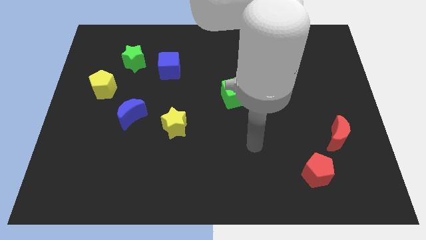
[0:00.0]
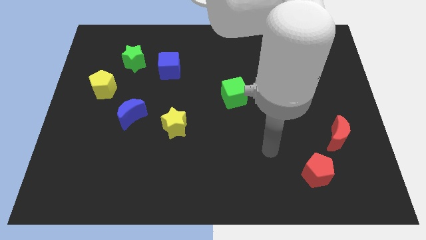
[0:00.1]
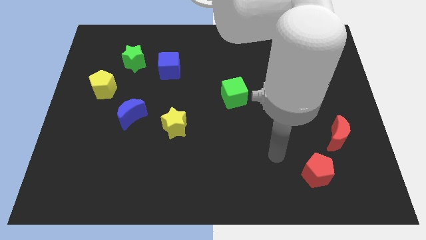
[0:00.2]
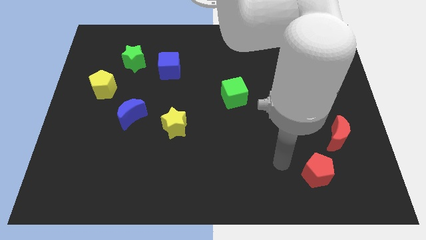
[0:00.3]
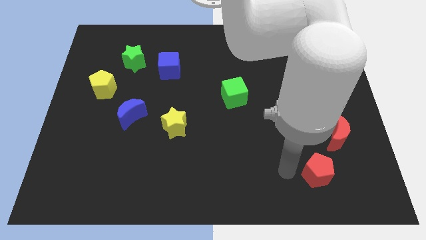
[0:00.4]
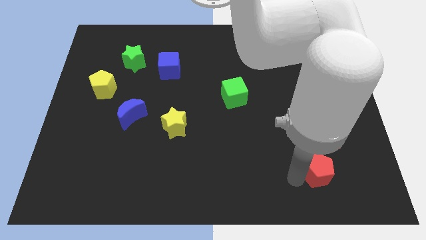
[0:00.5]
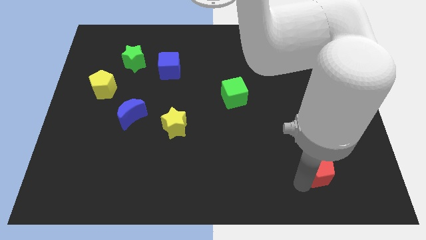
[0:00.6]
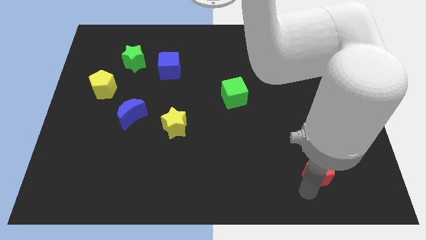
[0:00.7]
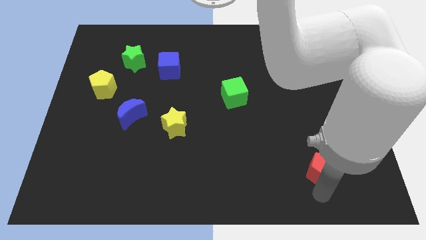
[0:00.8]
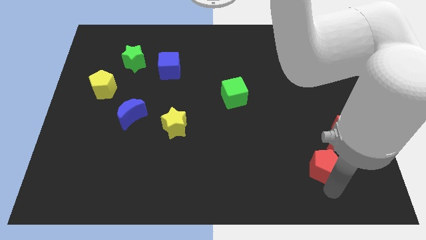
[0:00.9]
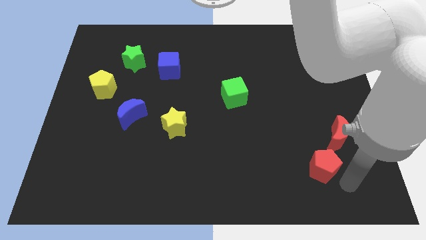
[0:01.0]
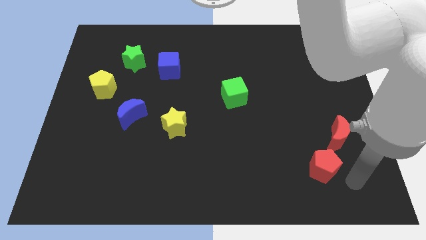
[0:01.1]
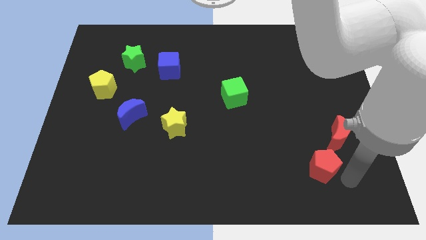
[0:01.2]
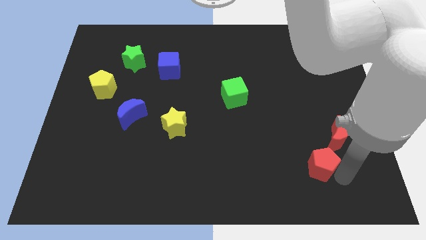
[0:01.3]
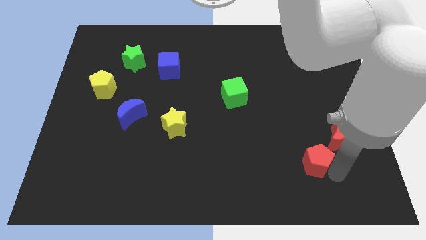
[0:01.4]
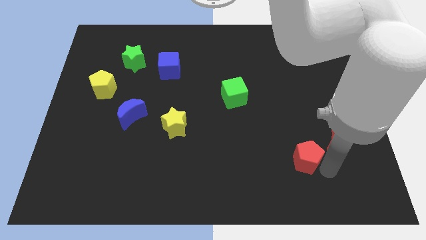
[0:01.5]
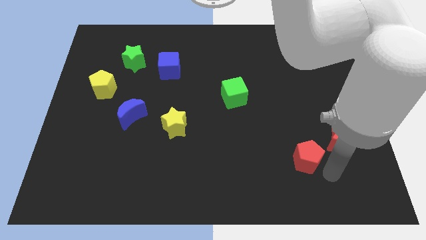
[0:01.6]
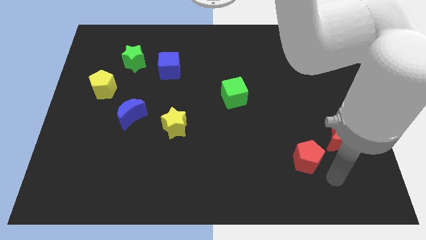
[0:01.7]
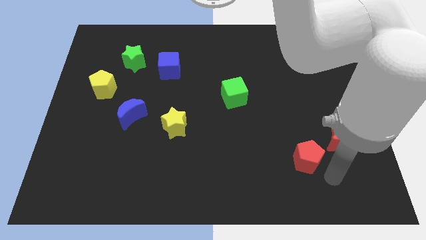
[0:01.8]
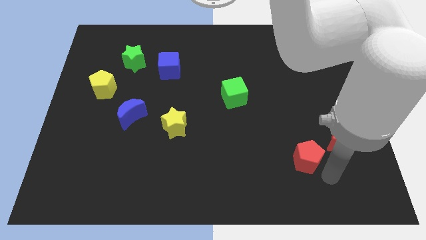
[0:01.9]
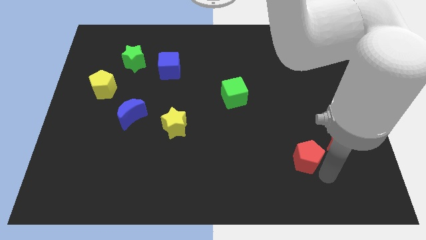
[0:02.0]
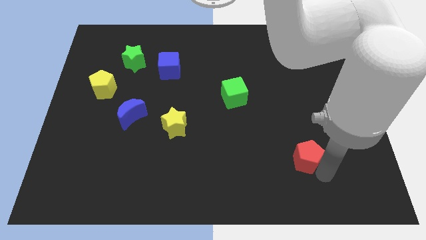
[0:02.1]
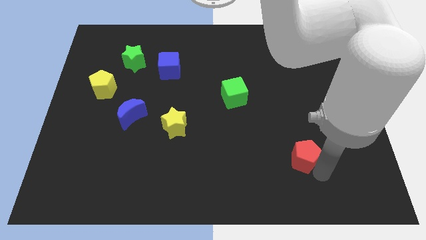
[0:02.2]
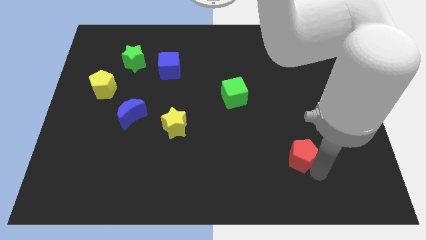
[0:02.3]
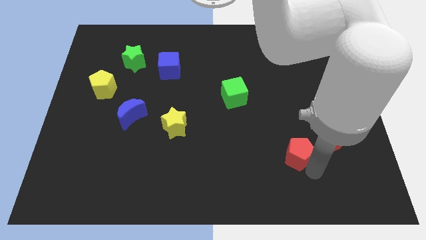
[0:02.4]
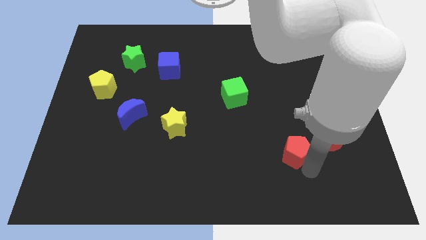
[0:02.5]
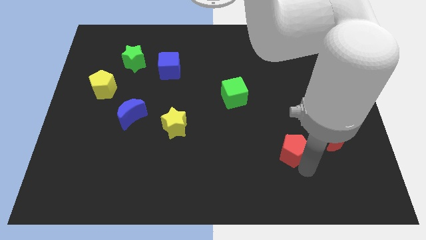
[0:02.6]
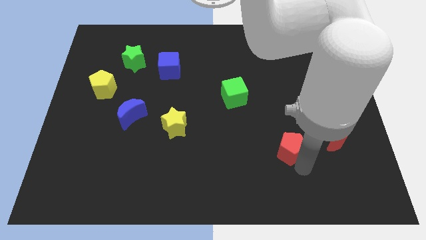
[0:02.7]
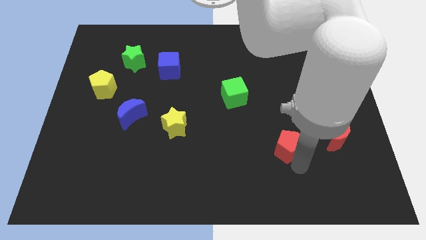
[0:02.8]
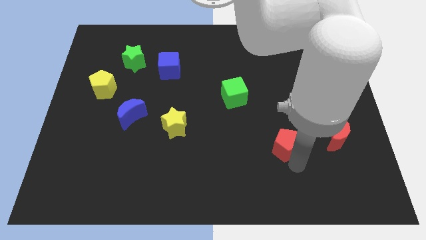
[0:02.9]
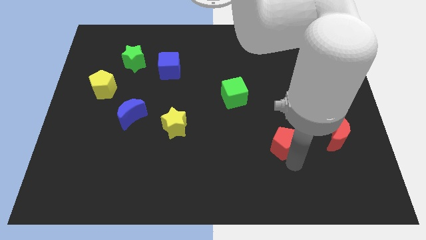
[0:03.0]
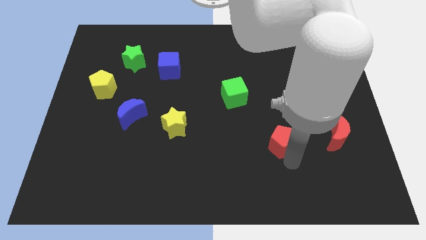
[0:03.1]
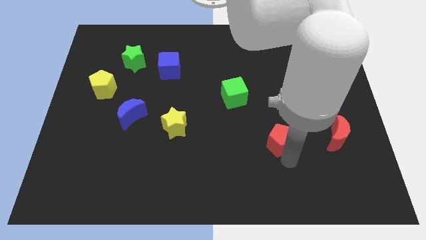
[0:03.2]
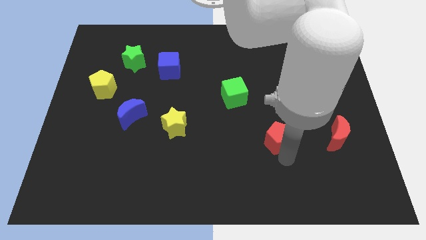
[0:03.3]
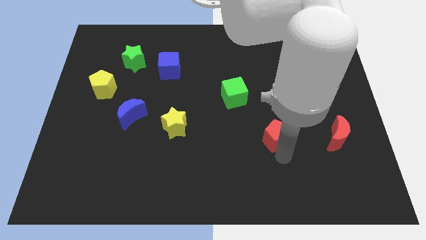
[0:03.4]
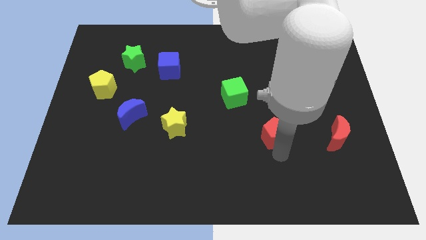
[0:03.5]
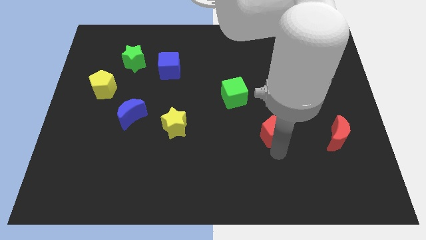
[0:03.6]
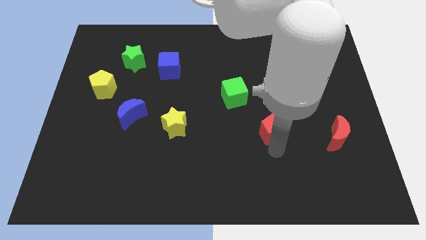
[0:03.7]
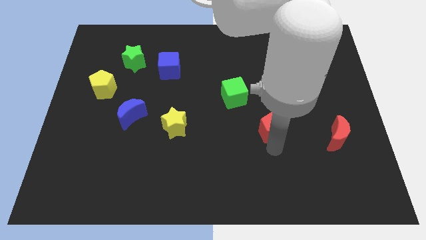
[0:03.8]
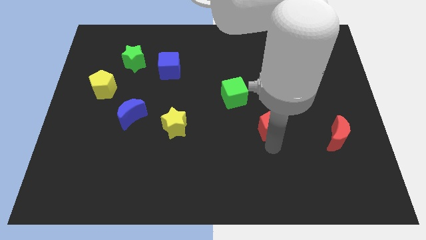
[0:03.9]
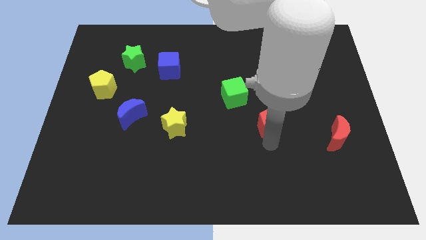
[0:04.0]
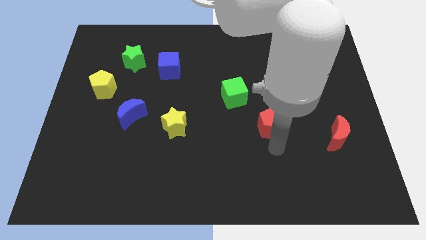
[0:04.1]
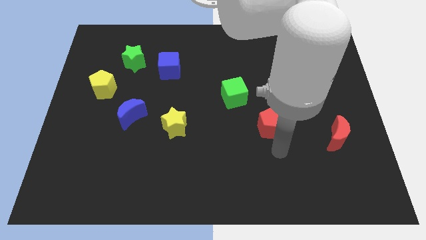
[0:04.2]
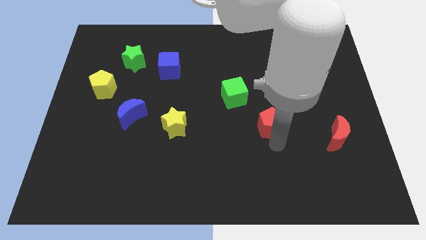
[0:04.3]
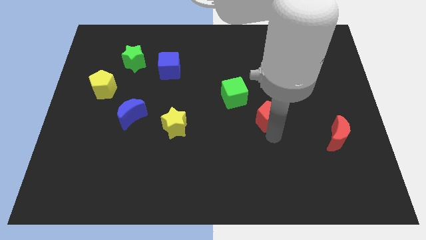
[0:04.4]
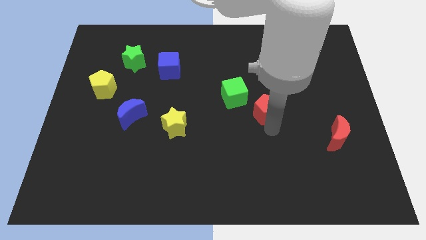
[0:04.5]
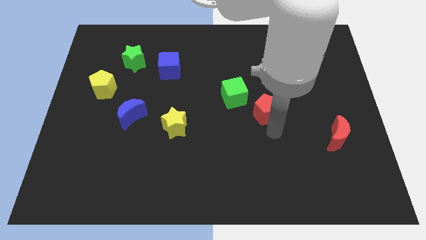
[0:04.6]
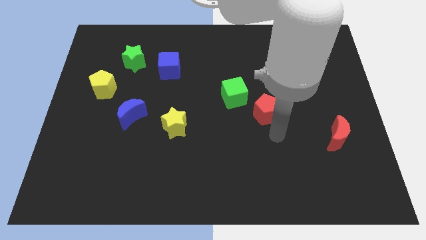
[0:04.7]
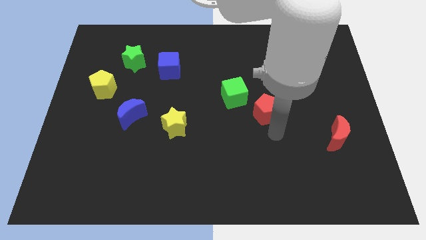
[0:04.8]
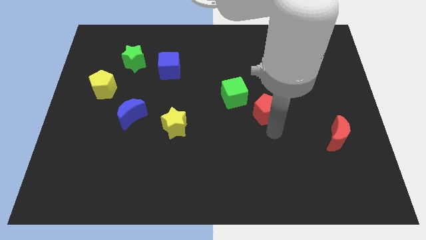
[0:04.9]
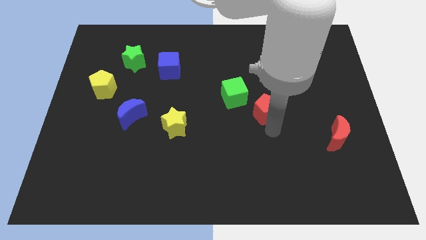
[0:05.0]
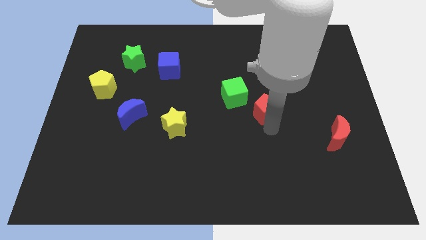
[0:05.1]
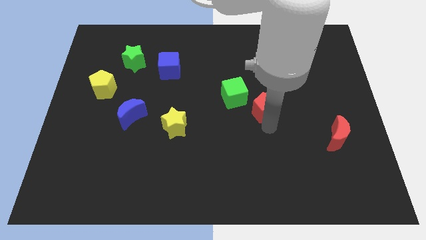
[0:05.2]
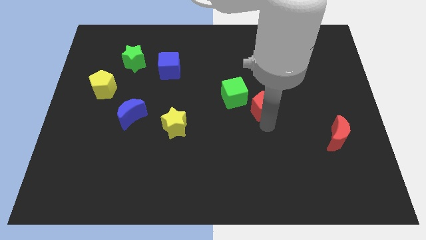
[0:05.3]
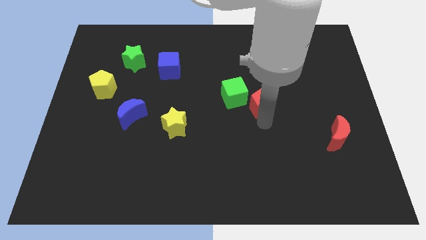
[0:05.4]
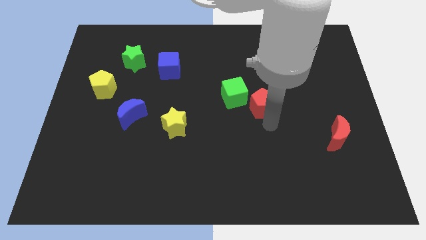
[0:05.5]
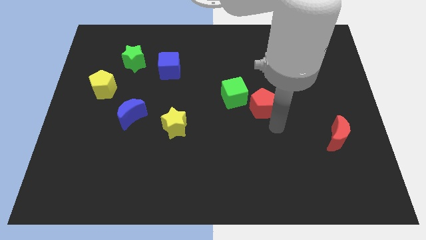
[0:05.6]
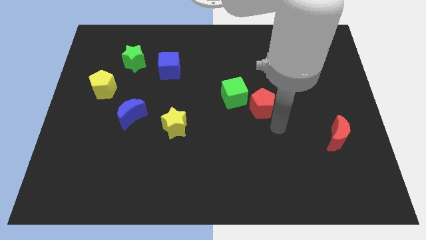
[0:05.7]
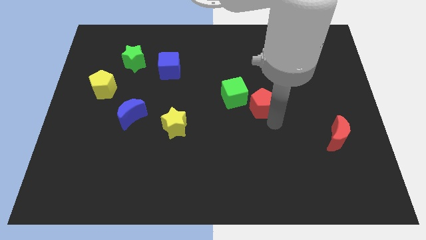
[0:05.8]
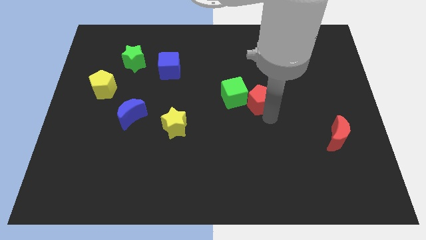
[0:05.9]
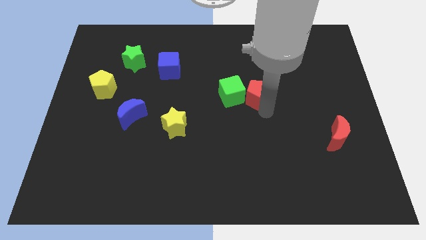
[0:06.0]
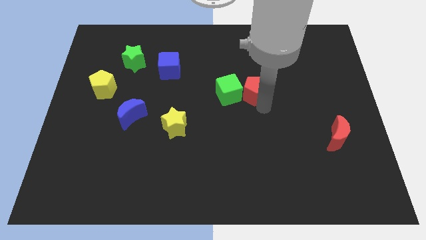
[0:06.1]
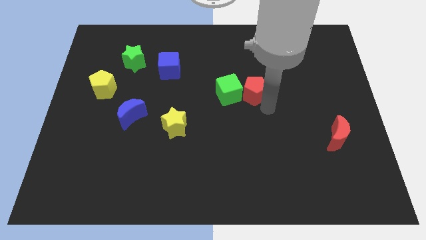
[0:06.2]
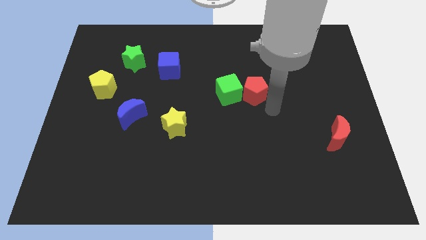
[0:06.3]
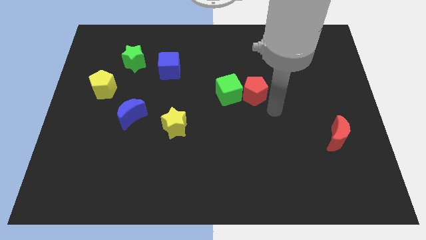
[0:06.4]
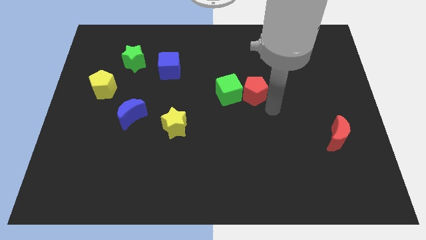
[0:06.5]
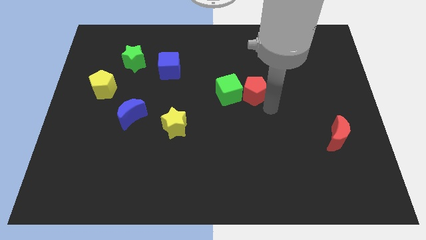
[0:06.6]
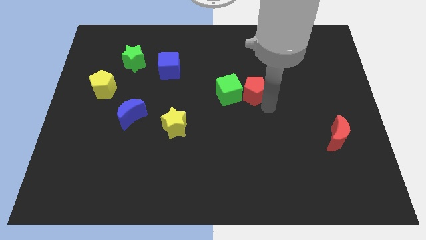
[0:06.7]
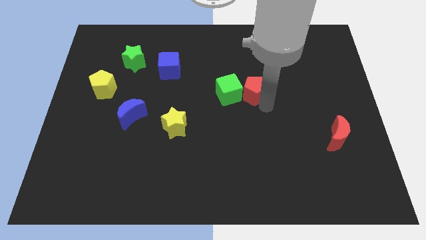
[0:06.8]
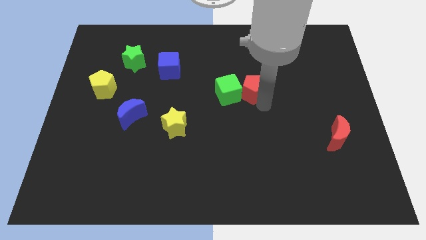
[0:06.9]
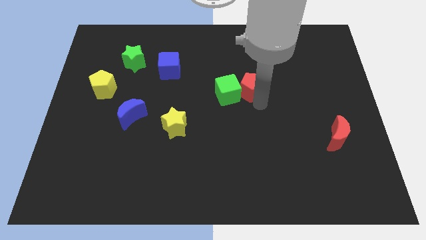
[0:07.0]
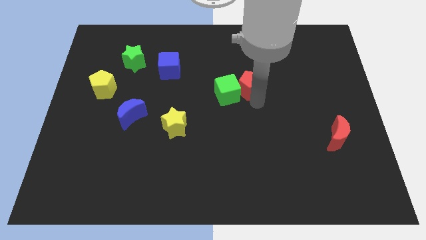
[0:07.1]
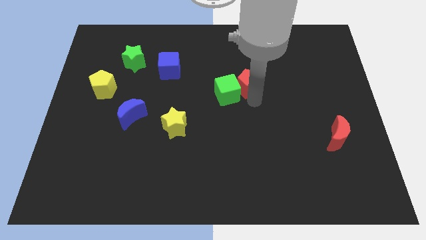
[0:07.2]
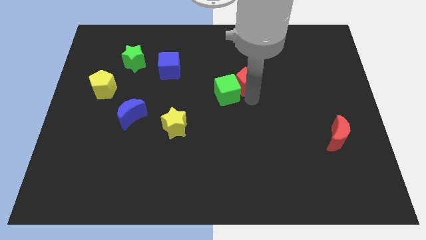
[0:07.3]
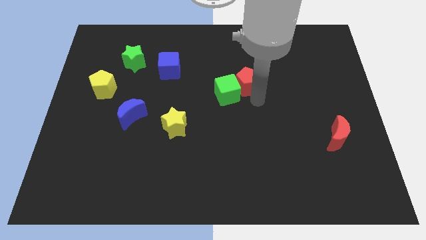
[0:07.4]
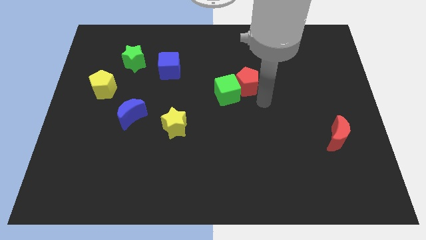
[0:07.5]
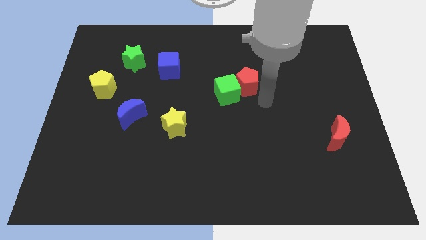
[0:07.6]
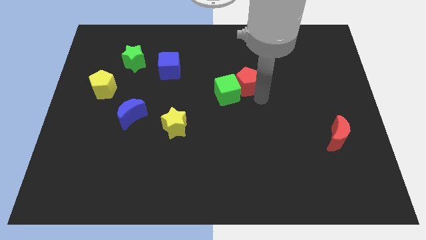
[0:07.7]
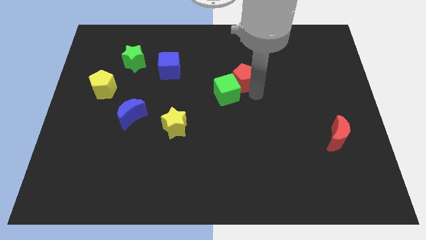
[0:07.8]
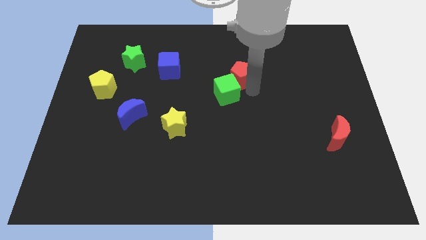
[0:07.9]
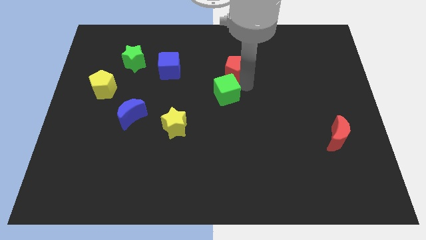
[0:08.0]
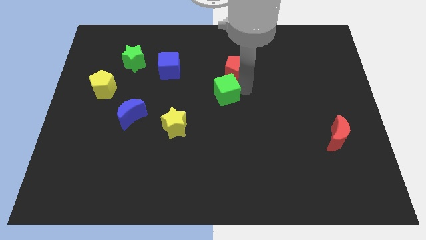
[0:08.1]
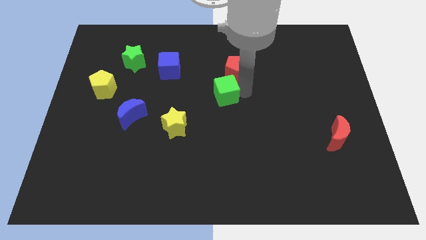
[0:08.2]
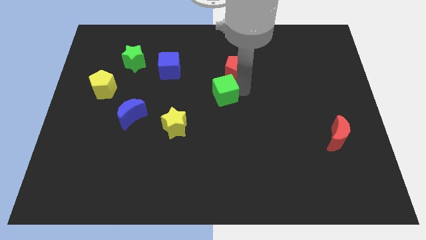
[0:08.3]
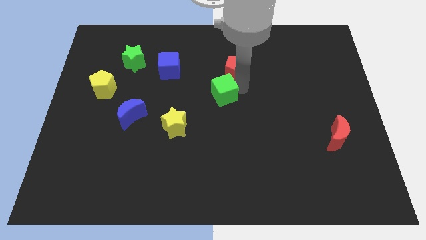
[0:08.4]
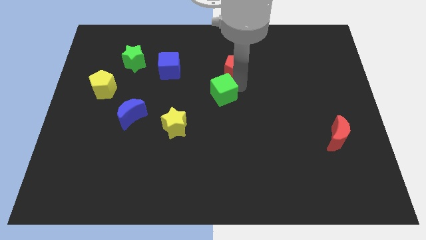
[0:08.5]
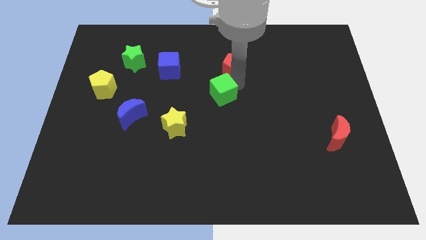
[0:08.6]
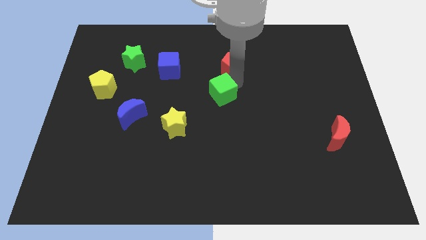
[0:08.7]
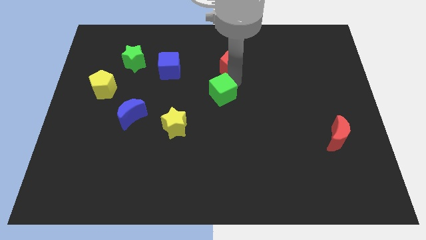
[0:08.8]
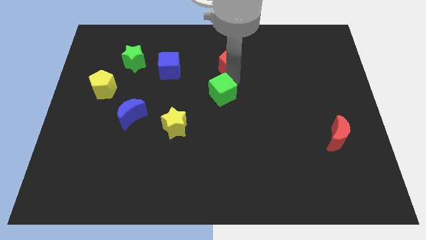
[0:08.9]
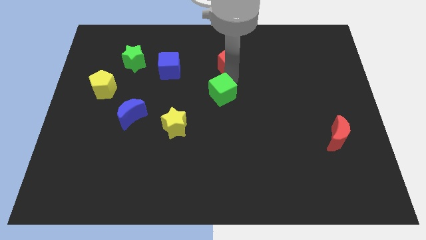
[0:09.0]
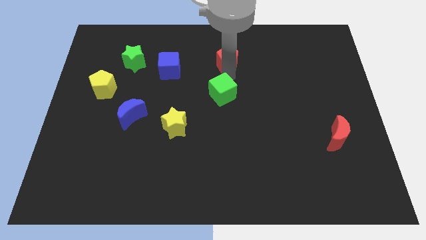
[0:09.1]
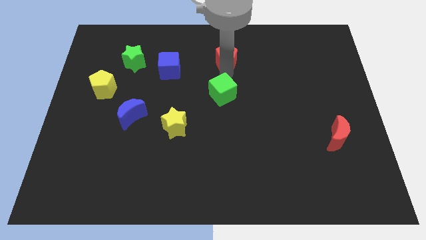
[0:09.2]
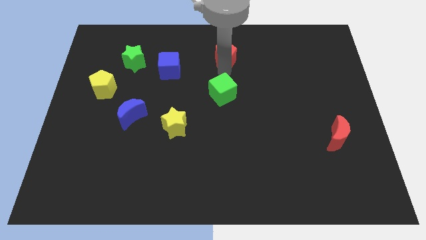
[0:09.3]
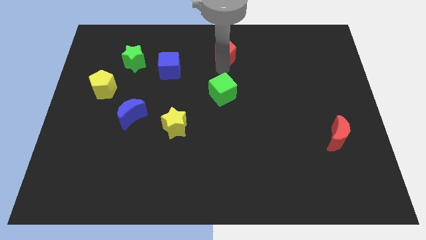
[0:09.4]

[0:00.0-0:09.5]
move the red pentagon to the top
